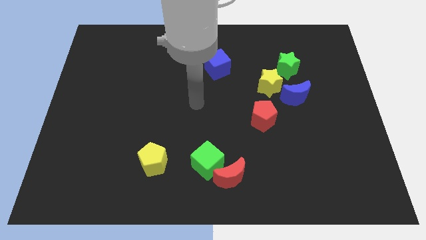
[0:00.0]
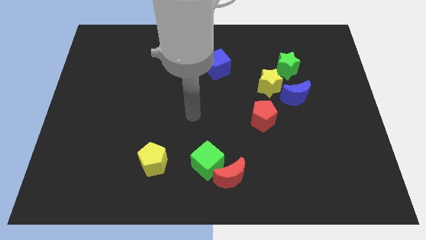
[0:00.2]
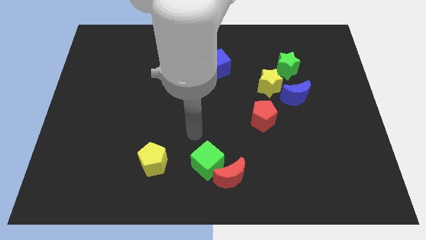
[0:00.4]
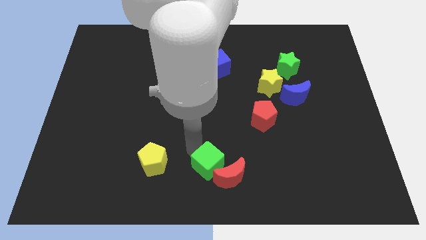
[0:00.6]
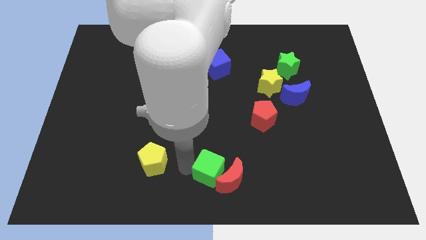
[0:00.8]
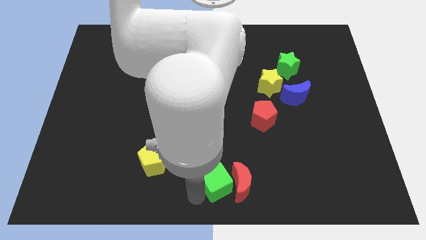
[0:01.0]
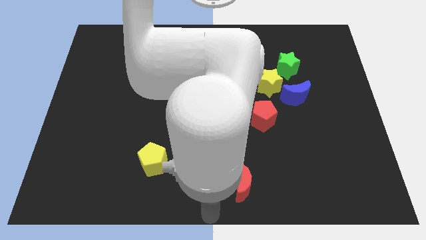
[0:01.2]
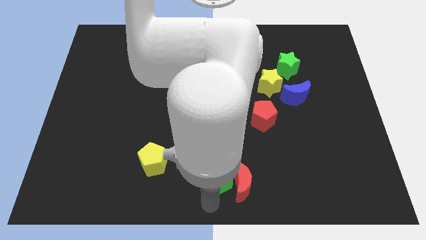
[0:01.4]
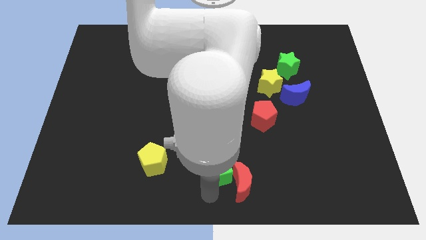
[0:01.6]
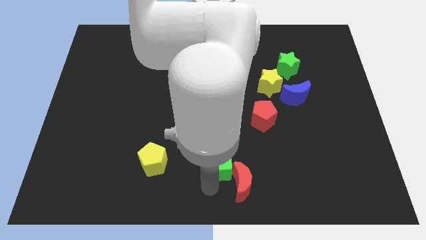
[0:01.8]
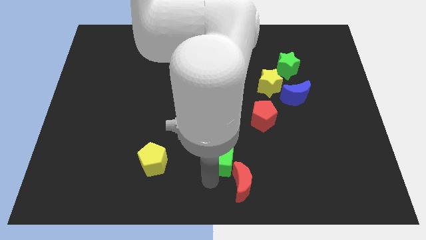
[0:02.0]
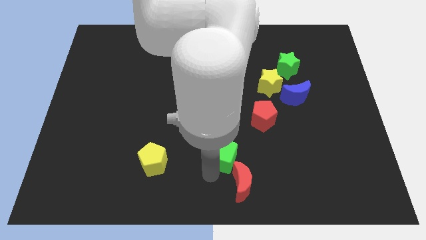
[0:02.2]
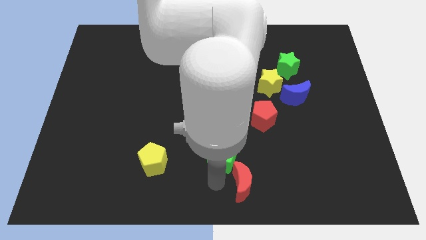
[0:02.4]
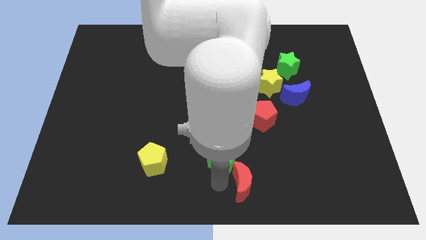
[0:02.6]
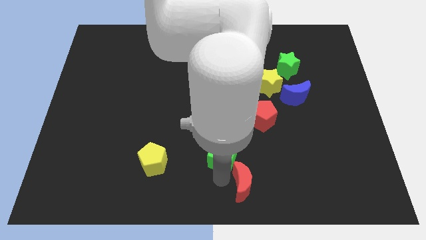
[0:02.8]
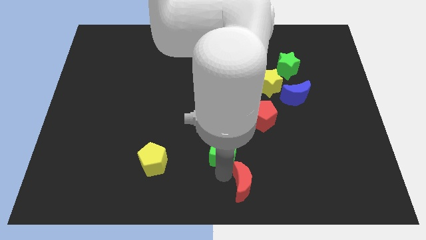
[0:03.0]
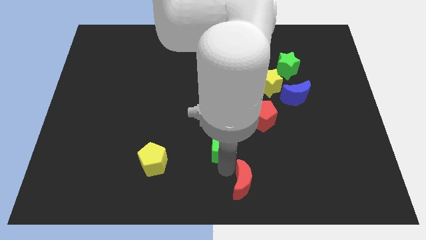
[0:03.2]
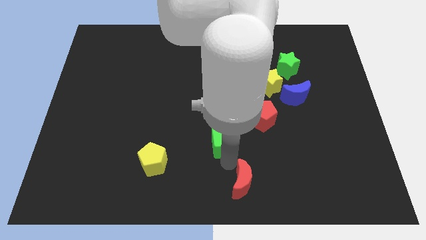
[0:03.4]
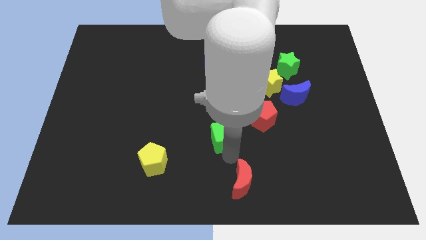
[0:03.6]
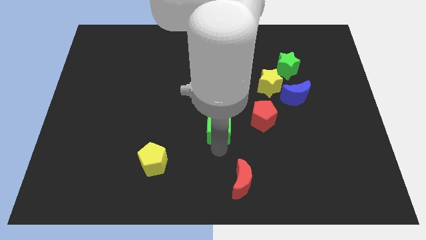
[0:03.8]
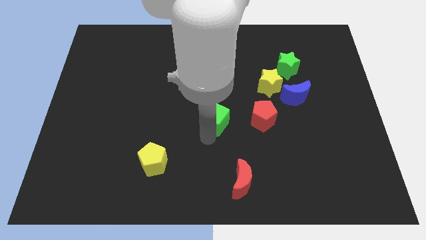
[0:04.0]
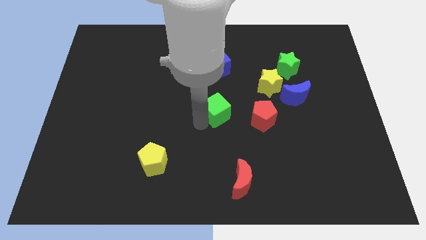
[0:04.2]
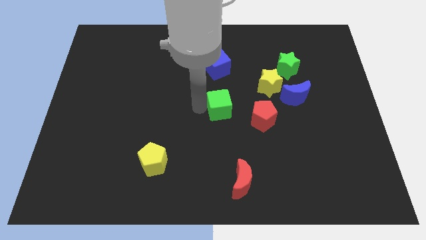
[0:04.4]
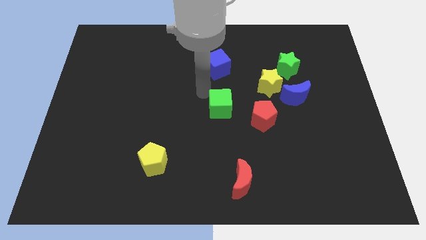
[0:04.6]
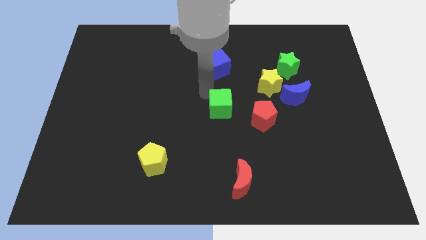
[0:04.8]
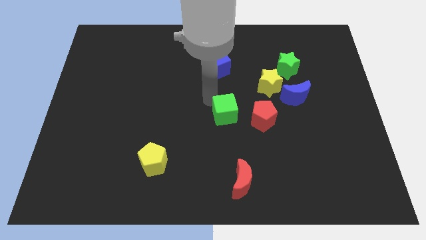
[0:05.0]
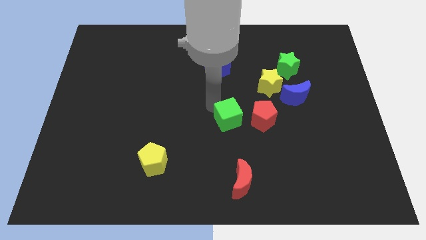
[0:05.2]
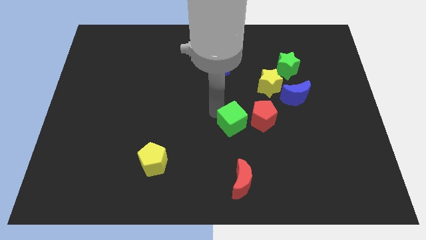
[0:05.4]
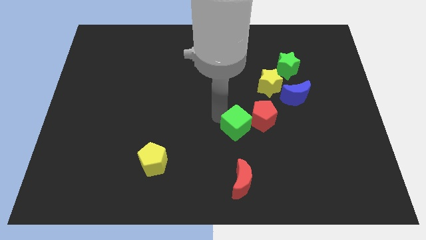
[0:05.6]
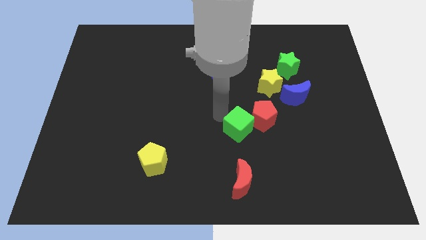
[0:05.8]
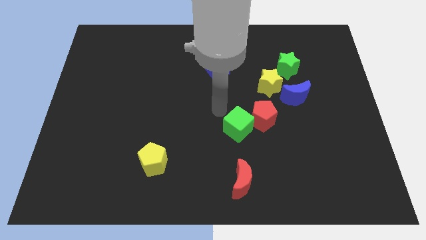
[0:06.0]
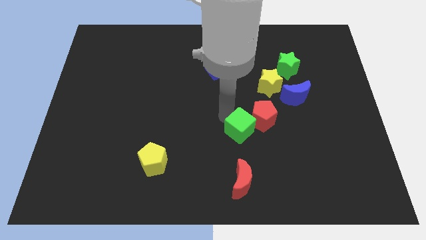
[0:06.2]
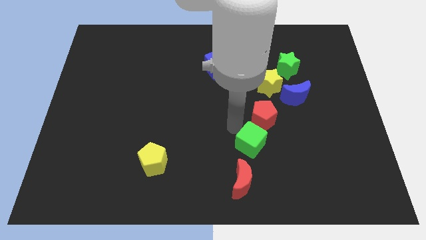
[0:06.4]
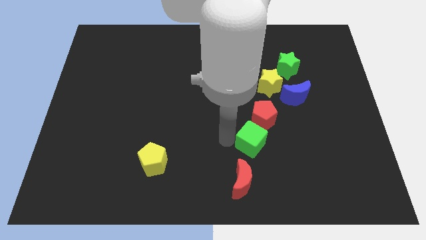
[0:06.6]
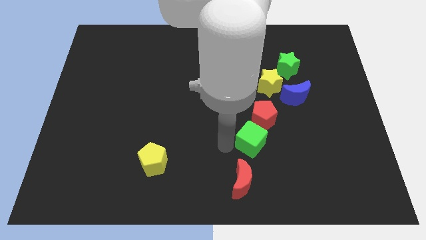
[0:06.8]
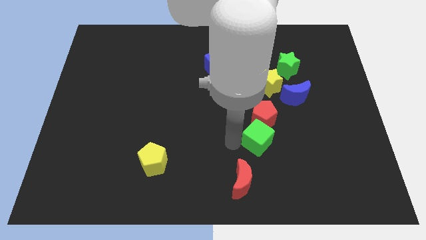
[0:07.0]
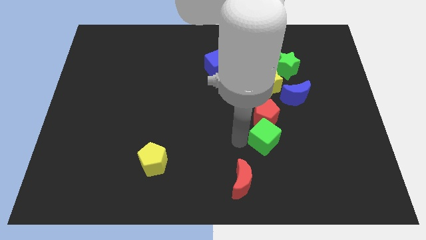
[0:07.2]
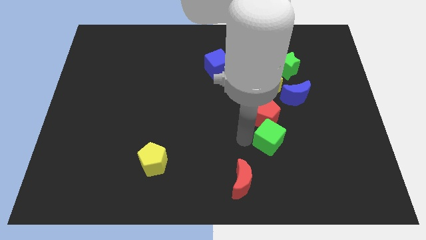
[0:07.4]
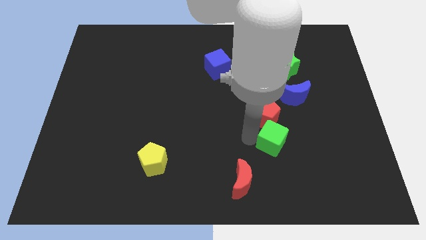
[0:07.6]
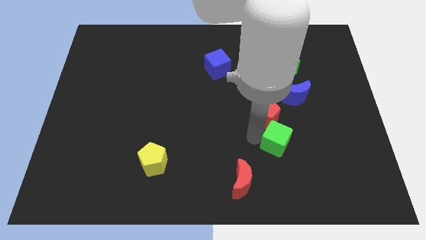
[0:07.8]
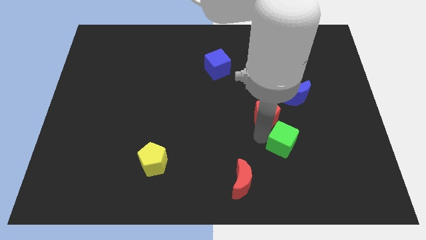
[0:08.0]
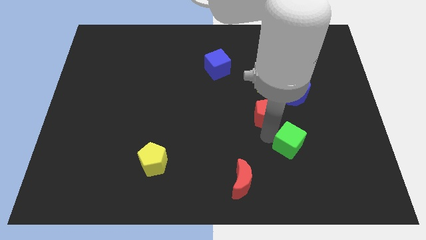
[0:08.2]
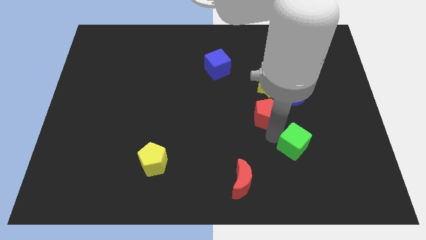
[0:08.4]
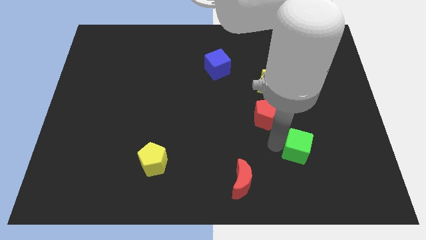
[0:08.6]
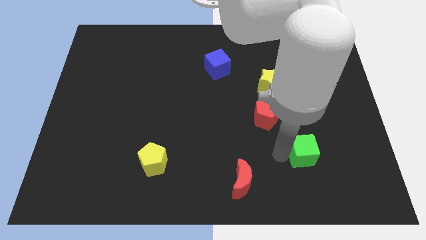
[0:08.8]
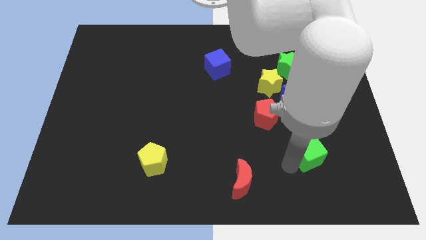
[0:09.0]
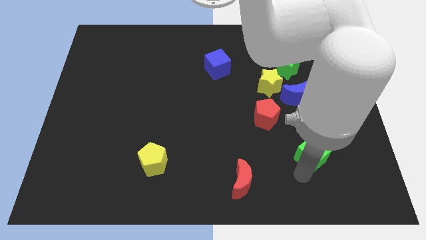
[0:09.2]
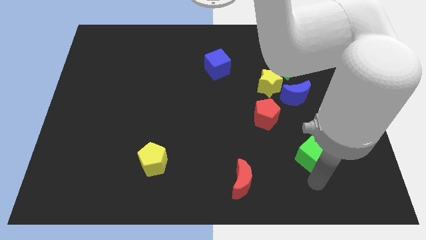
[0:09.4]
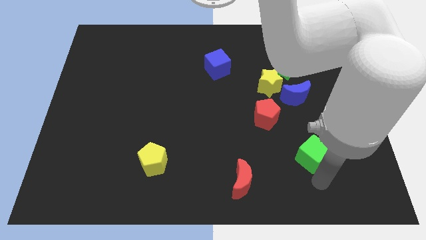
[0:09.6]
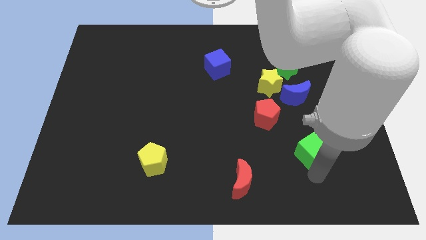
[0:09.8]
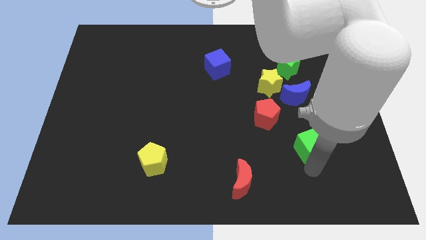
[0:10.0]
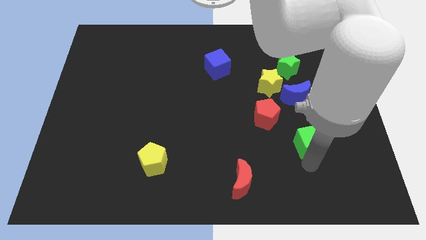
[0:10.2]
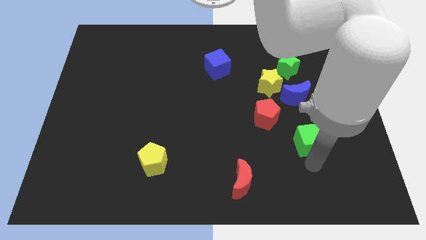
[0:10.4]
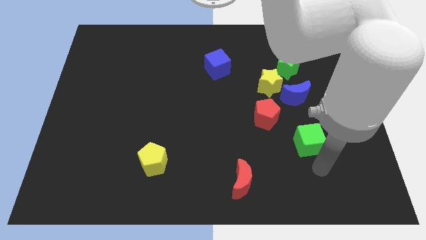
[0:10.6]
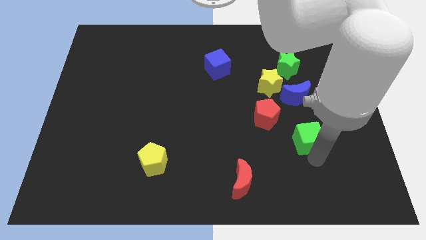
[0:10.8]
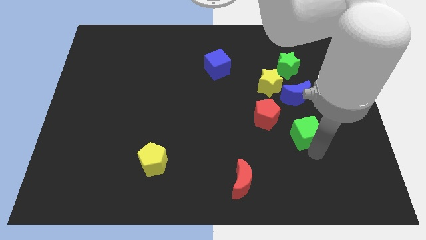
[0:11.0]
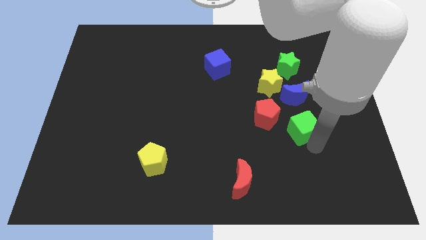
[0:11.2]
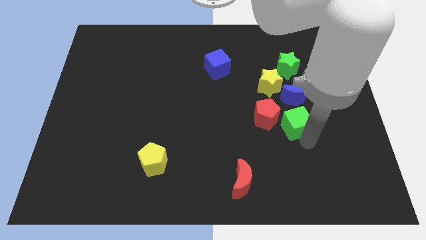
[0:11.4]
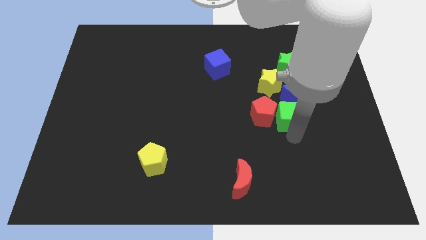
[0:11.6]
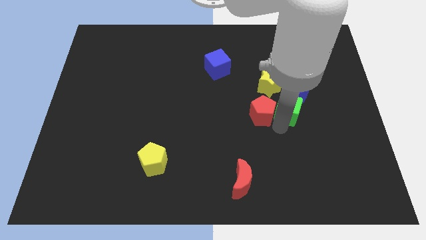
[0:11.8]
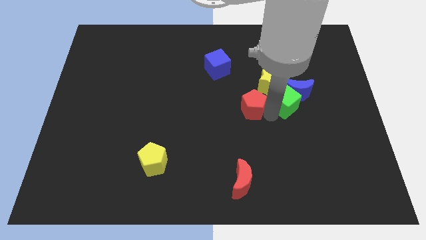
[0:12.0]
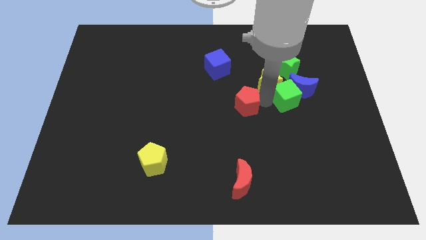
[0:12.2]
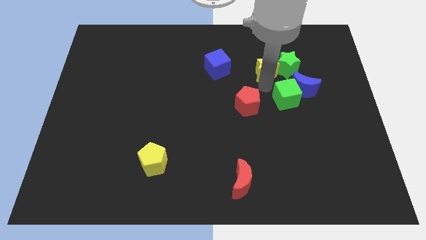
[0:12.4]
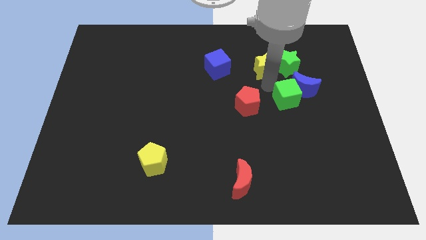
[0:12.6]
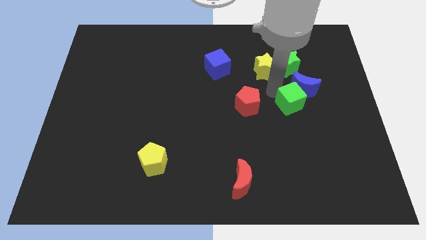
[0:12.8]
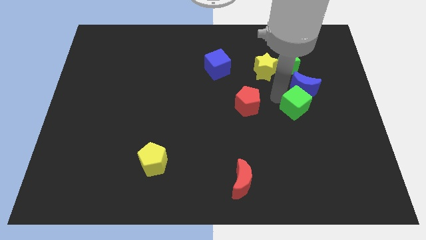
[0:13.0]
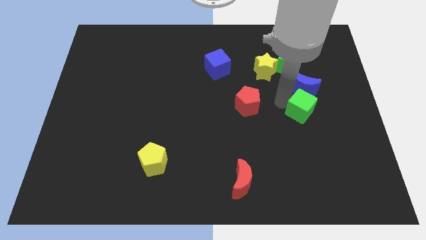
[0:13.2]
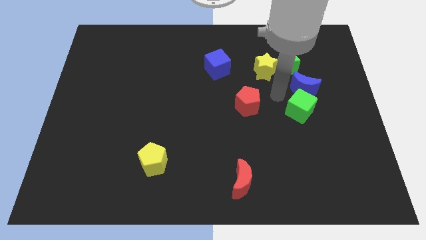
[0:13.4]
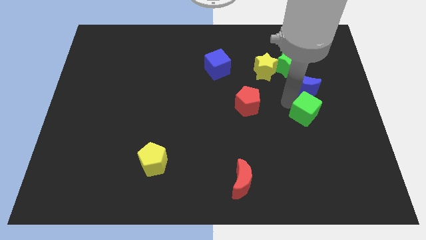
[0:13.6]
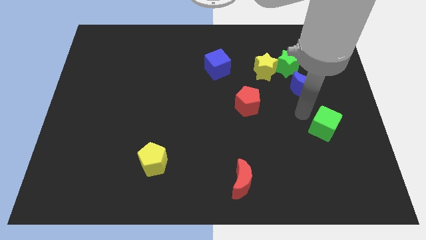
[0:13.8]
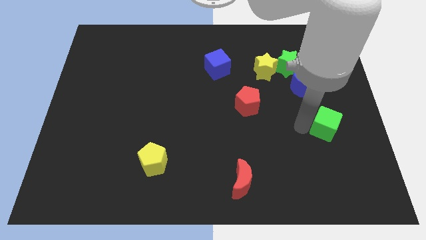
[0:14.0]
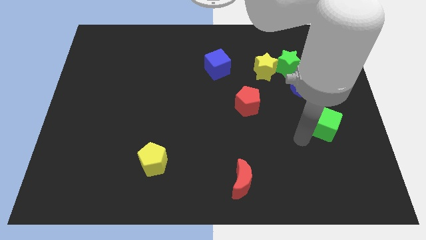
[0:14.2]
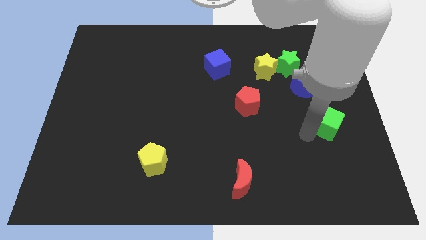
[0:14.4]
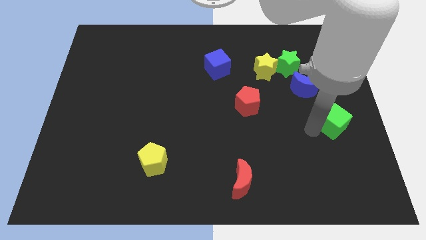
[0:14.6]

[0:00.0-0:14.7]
push the green cube to the right side

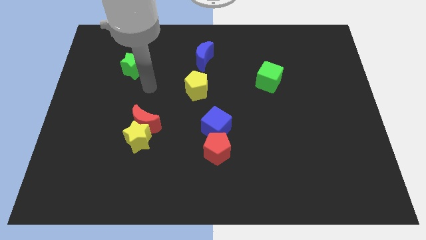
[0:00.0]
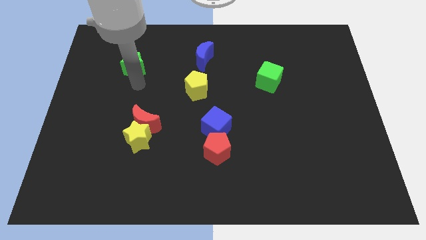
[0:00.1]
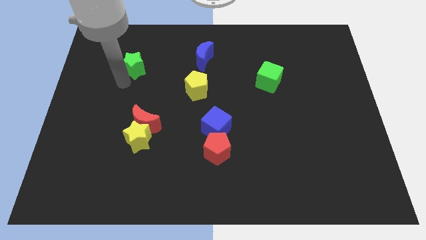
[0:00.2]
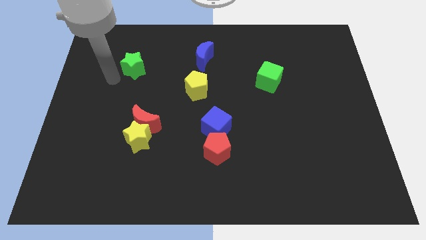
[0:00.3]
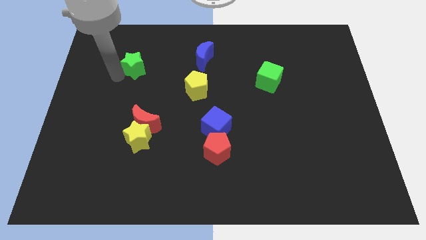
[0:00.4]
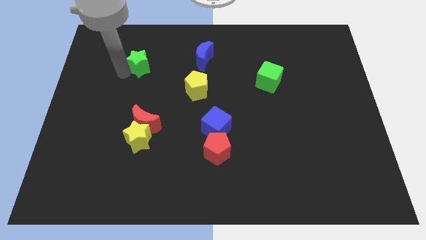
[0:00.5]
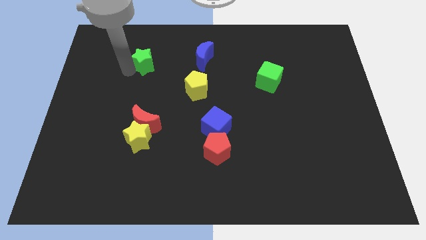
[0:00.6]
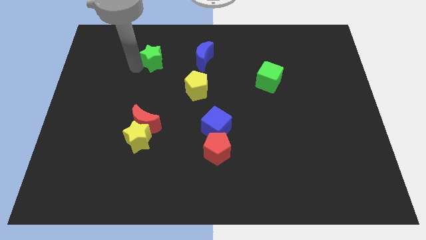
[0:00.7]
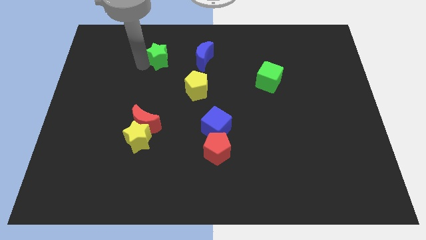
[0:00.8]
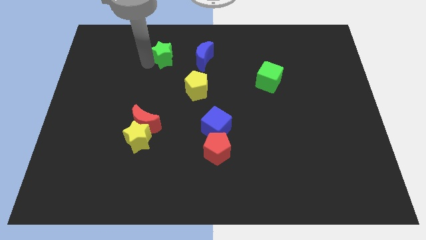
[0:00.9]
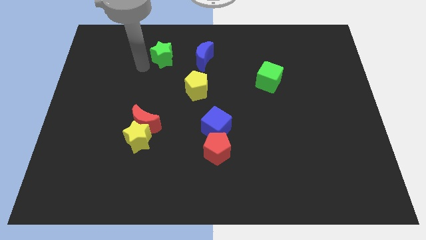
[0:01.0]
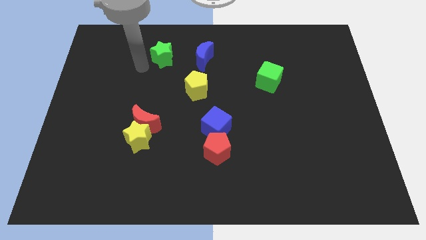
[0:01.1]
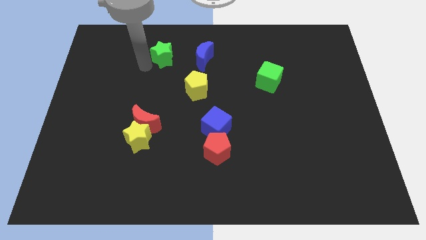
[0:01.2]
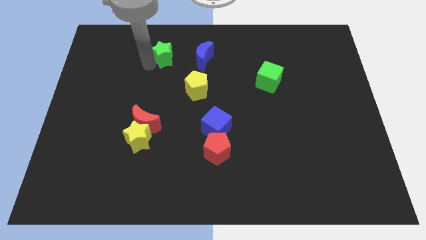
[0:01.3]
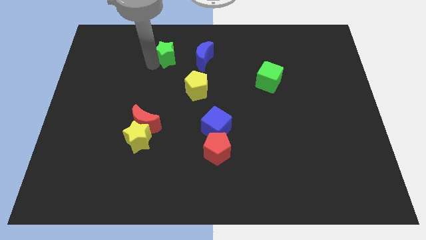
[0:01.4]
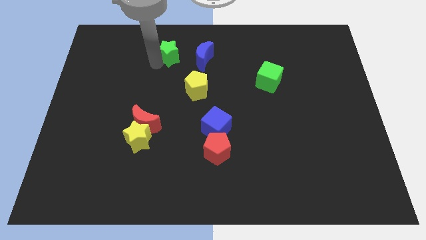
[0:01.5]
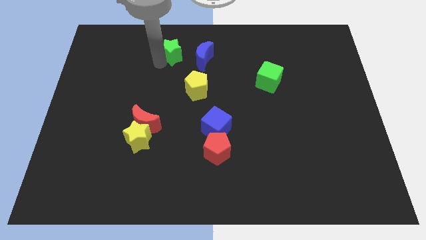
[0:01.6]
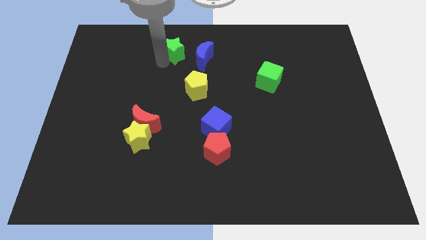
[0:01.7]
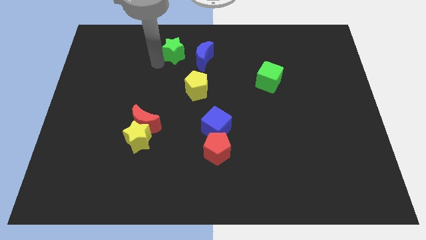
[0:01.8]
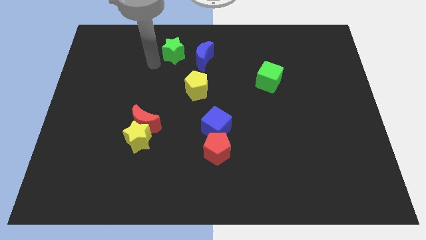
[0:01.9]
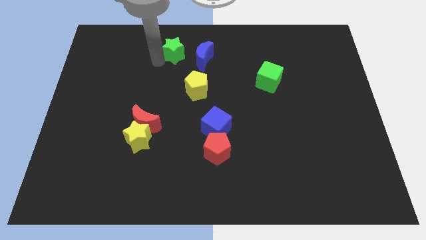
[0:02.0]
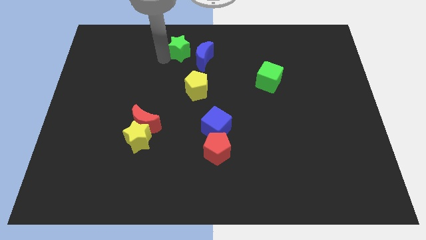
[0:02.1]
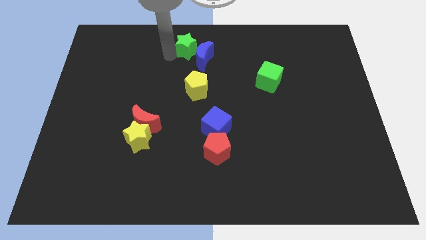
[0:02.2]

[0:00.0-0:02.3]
slide the green star to the towards your base
